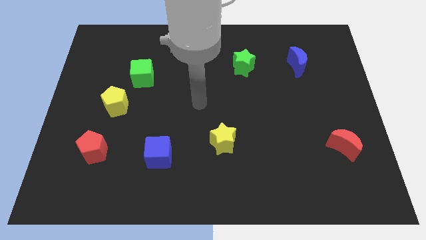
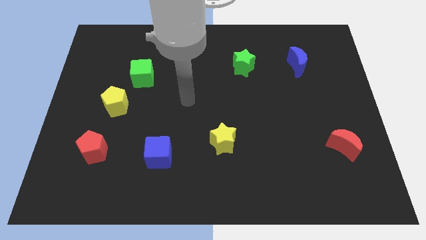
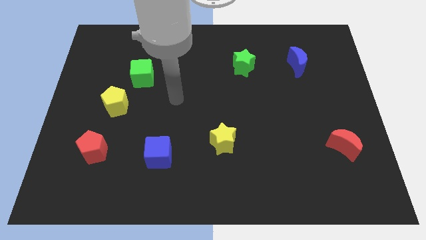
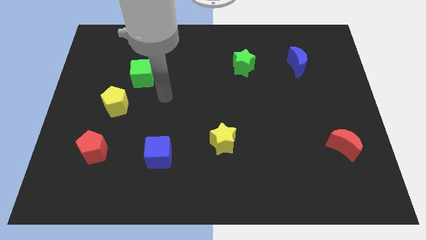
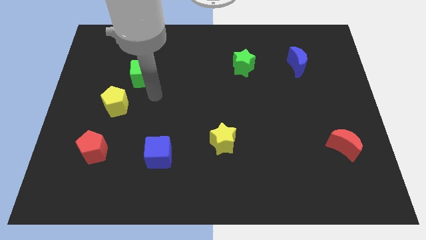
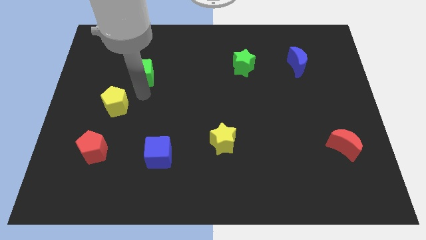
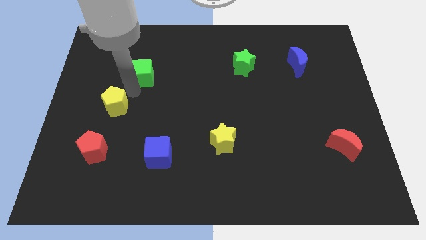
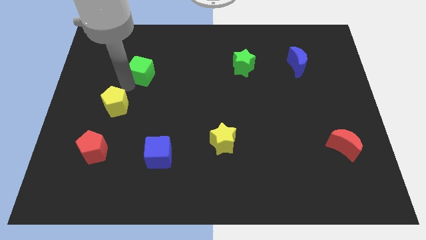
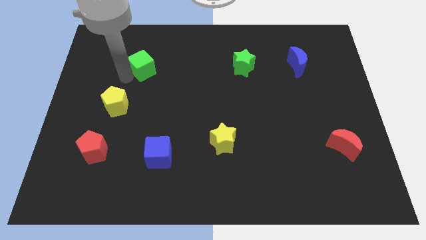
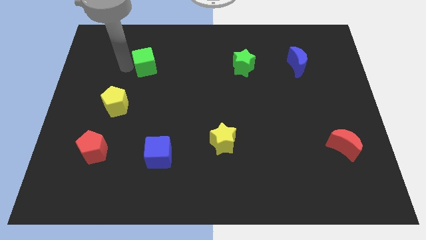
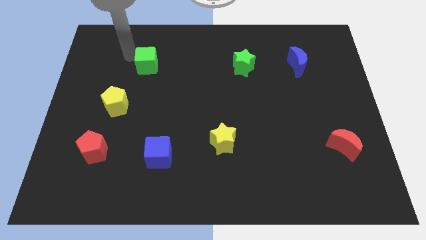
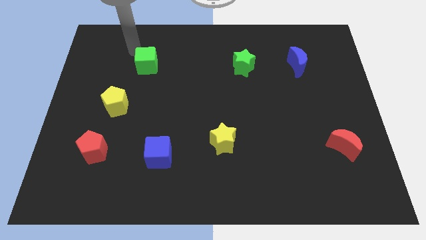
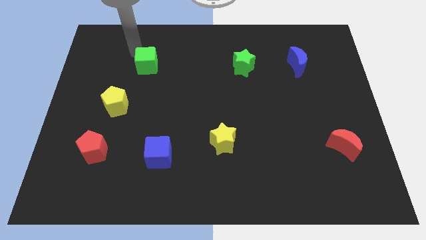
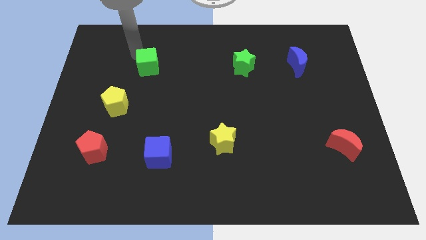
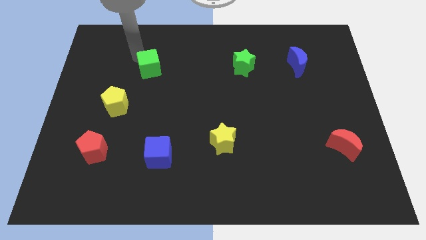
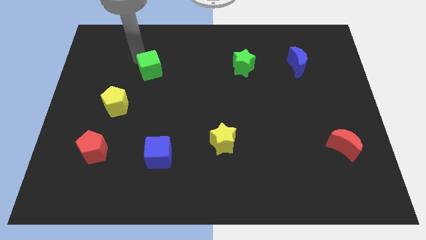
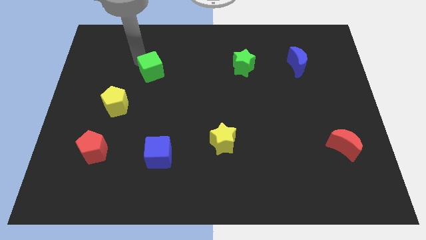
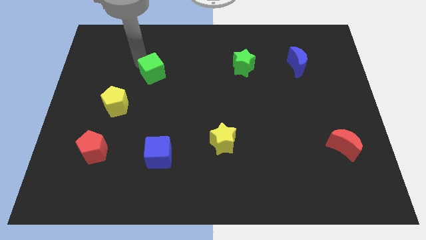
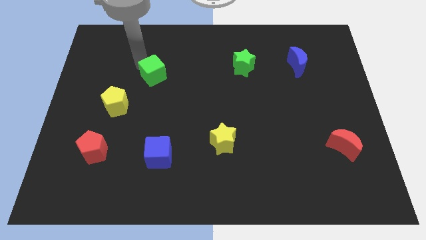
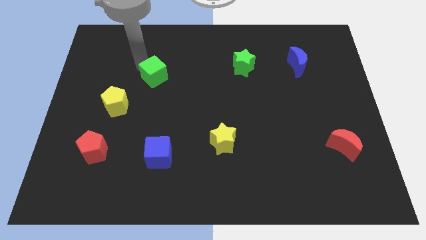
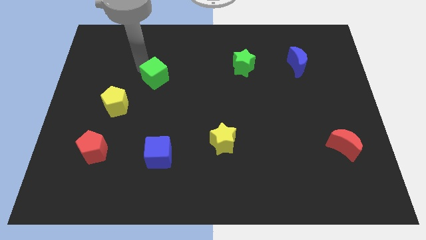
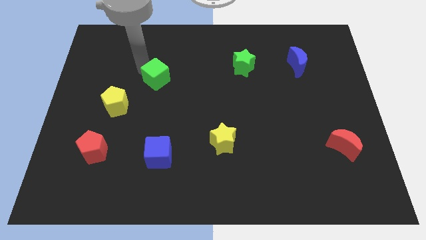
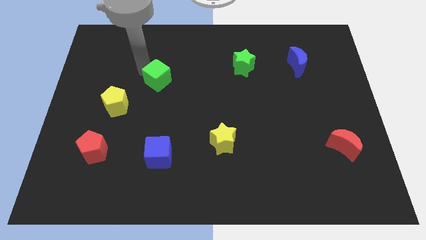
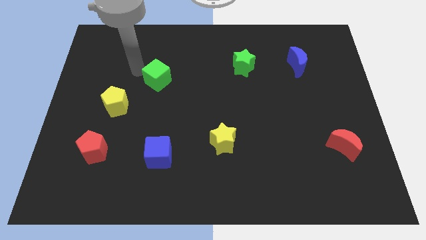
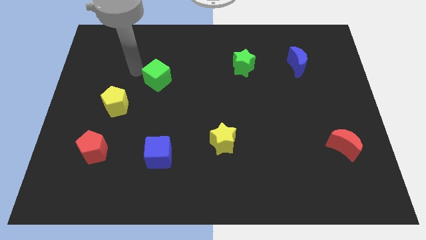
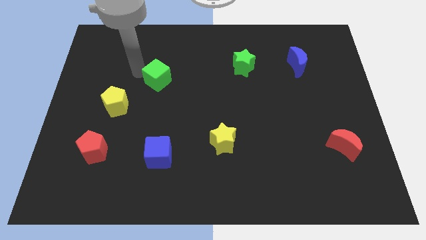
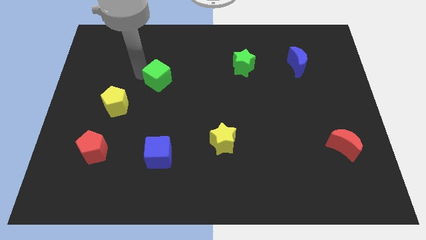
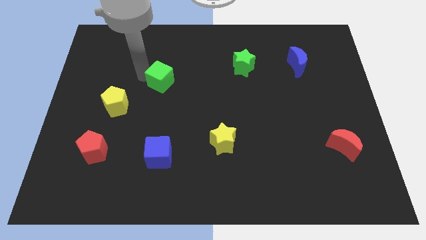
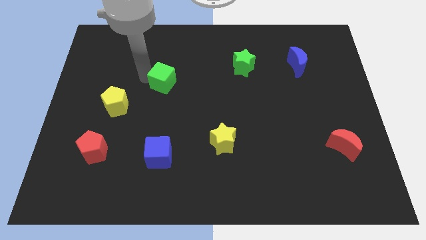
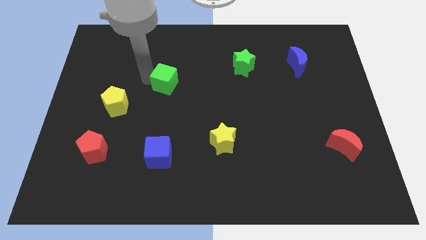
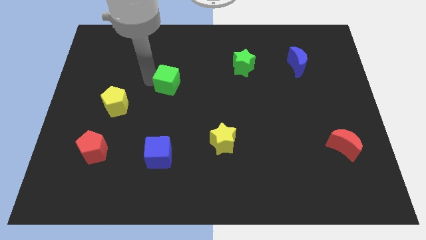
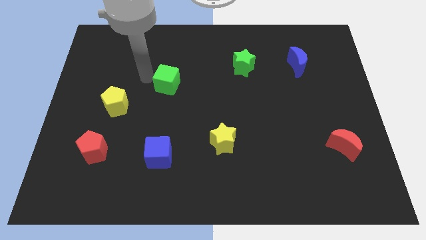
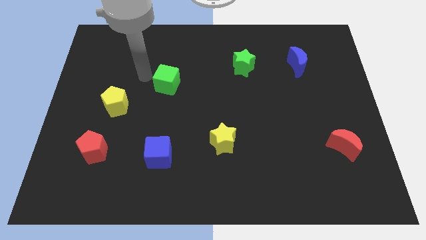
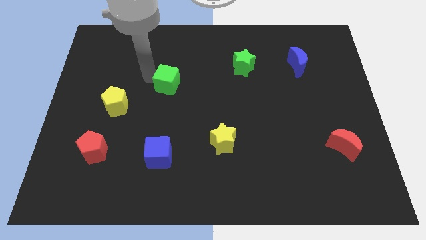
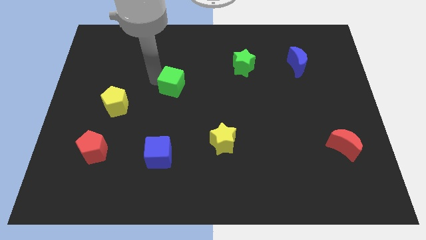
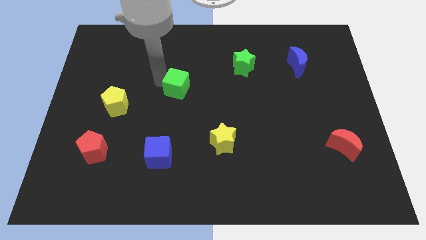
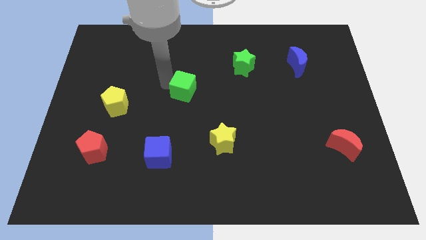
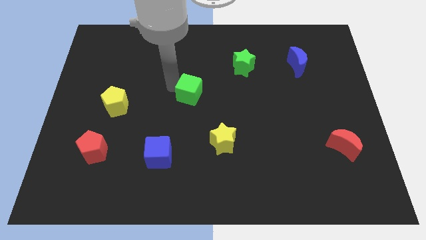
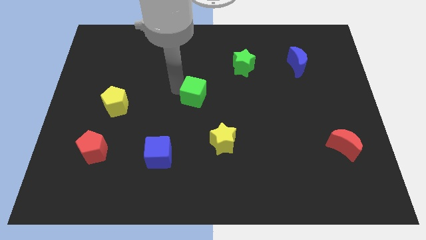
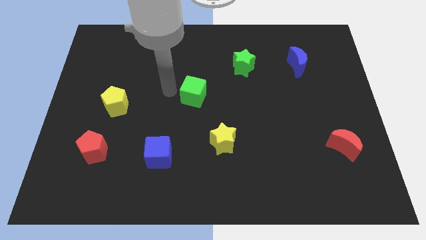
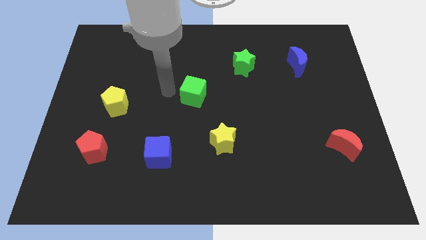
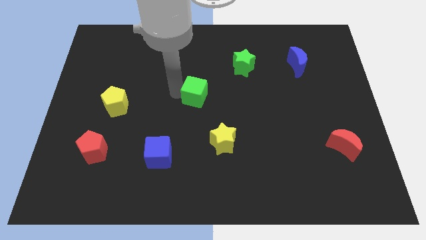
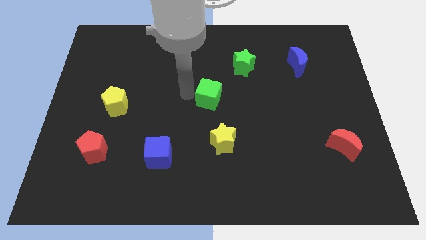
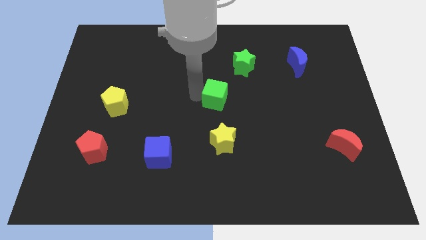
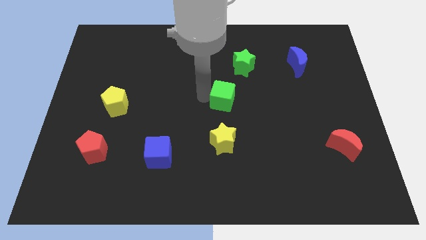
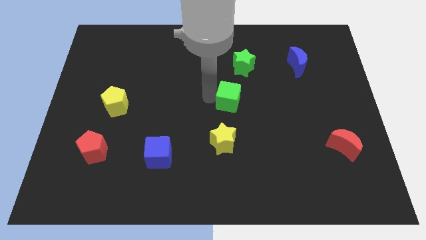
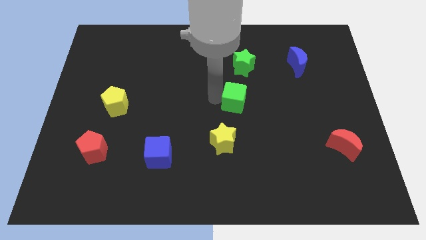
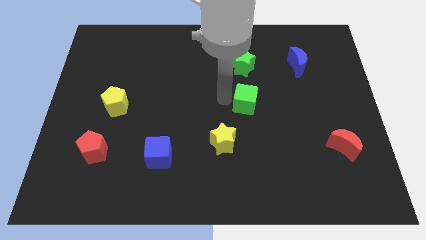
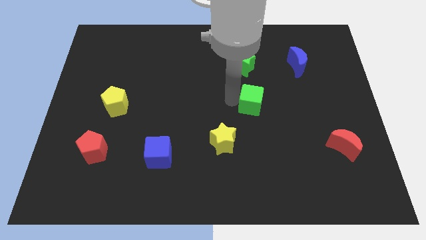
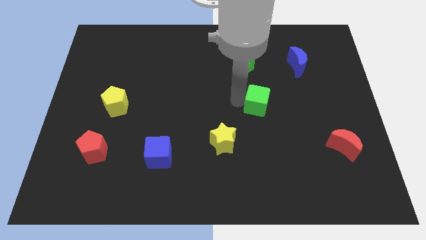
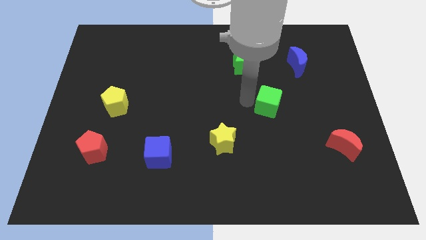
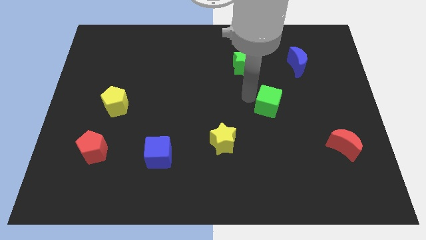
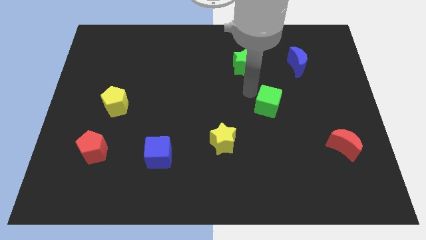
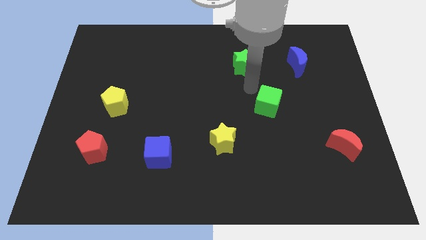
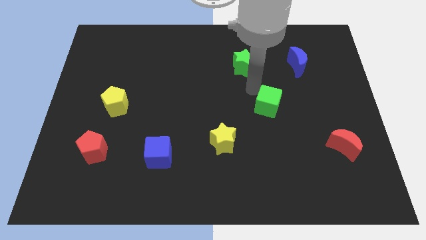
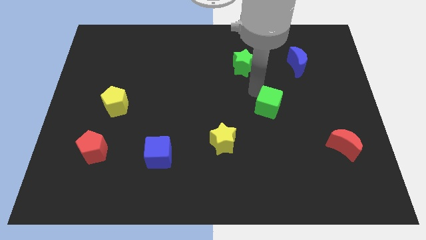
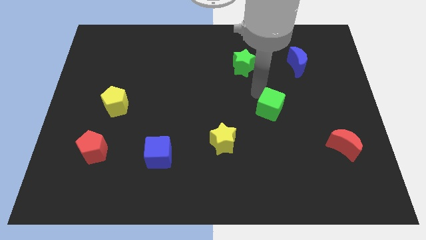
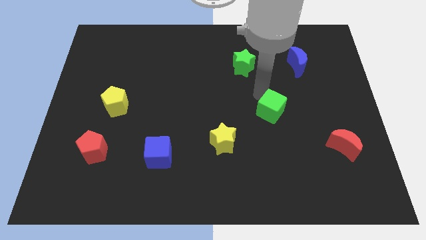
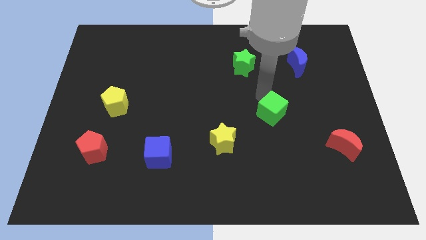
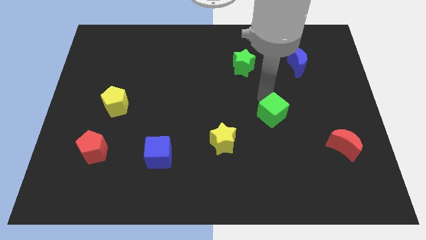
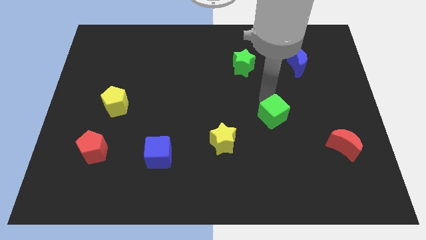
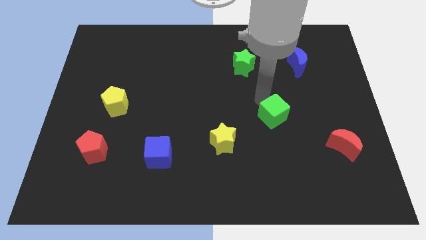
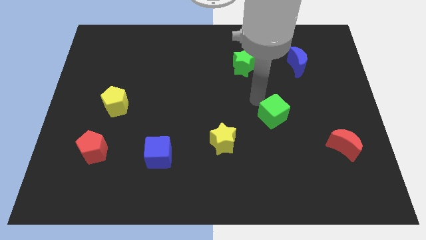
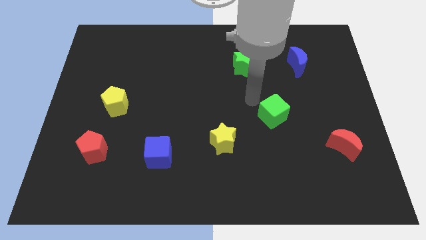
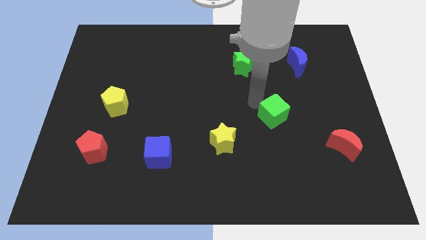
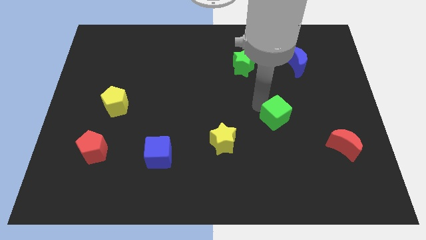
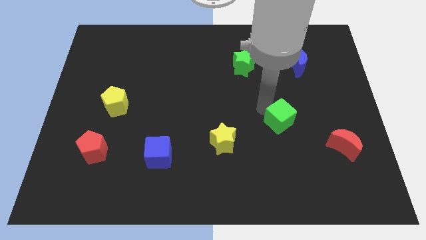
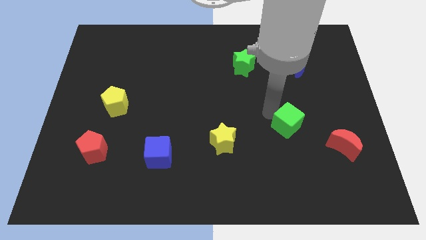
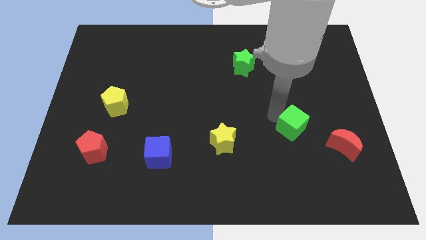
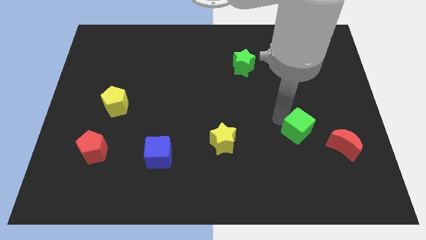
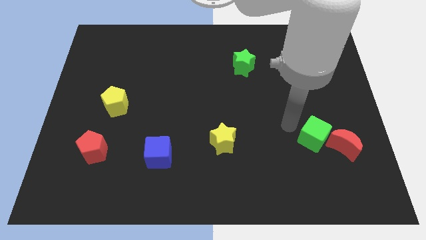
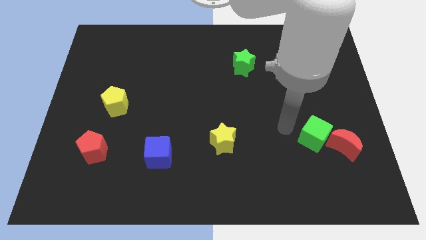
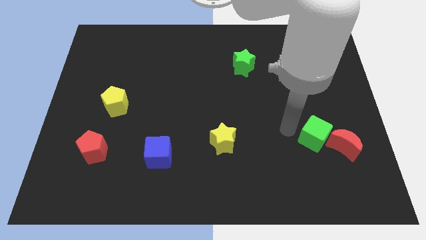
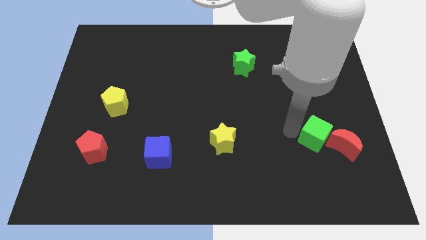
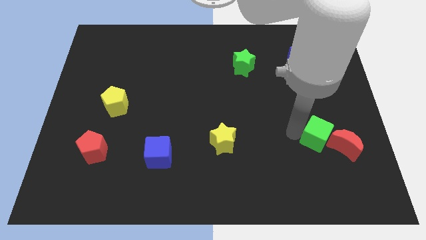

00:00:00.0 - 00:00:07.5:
push the green cube to the red moon

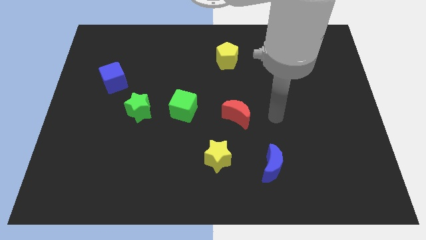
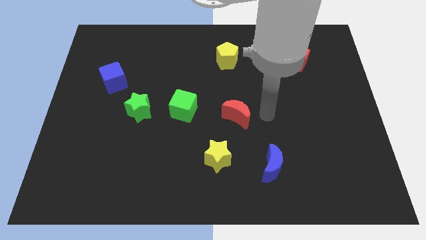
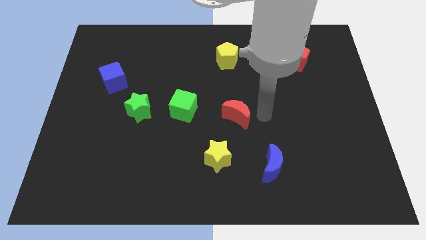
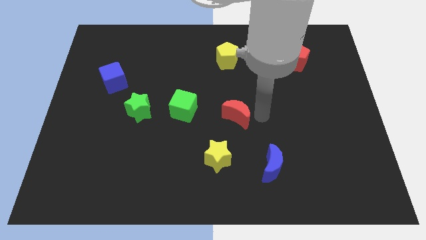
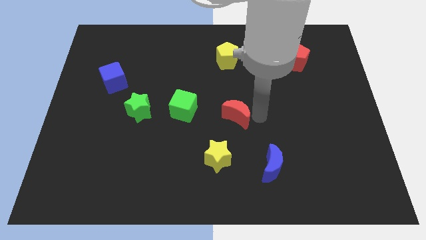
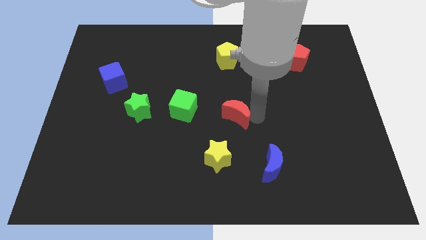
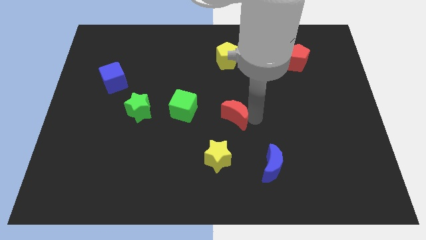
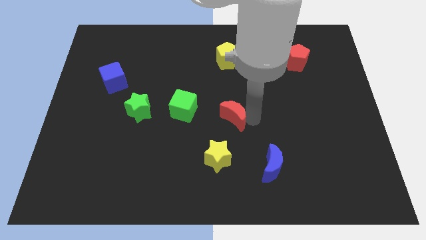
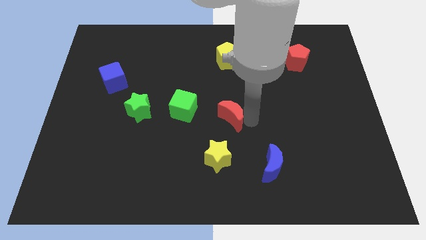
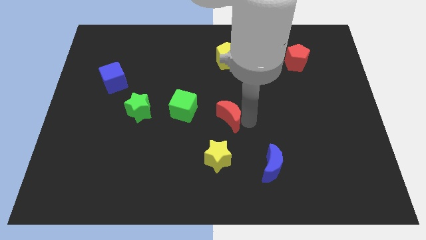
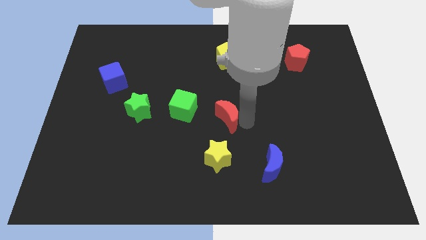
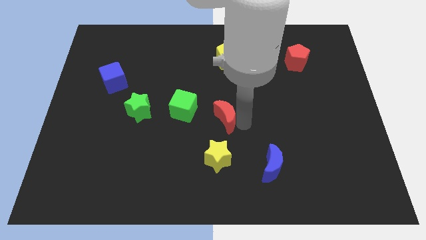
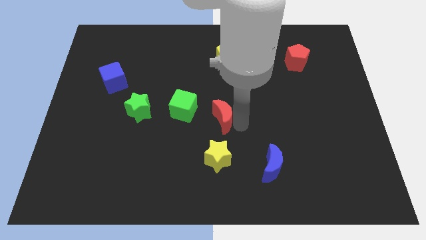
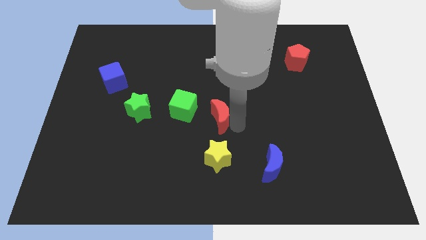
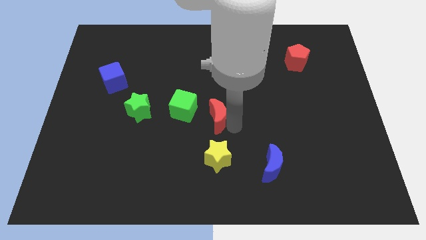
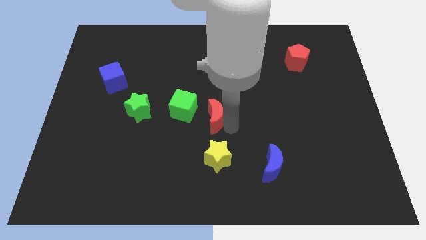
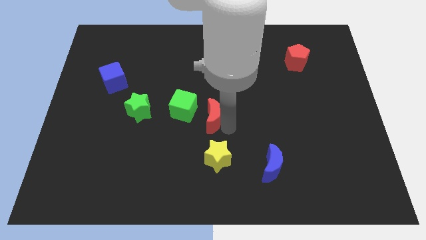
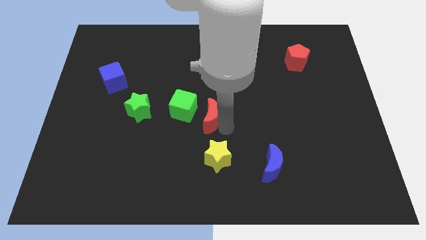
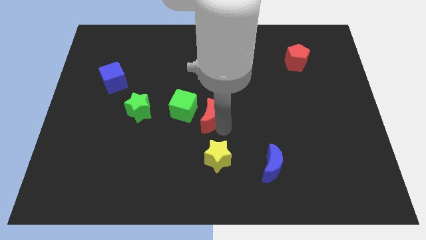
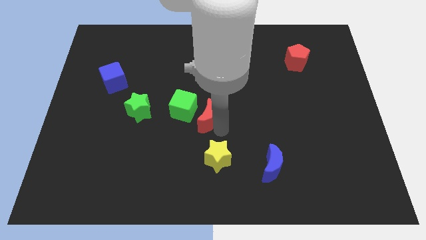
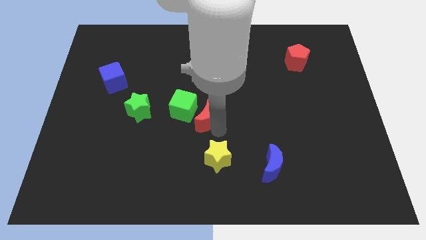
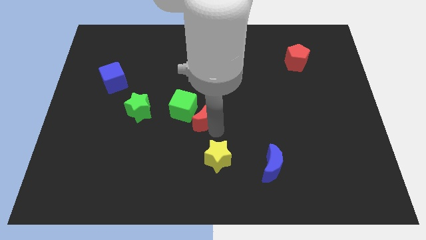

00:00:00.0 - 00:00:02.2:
push the red moon close to the green cube
